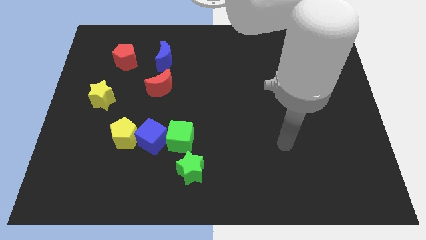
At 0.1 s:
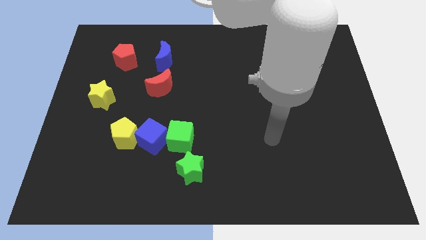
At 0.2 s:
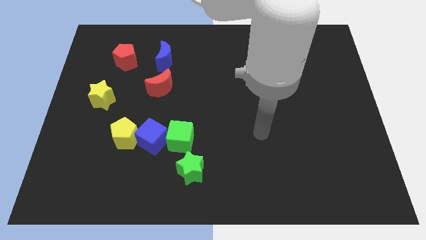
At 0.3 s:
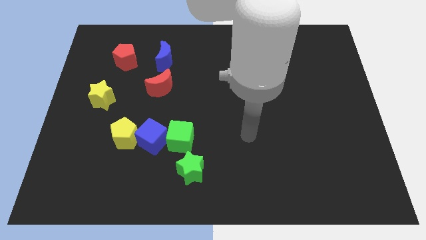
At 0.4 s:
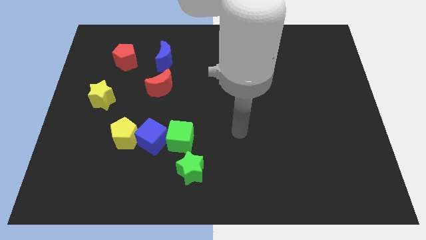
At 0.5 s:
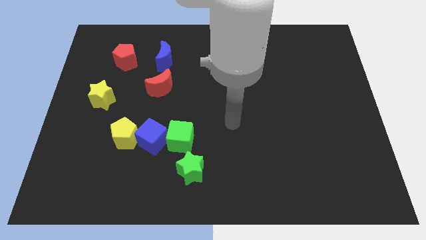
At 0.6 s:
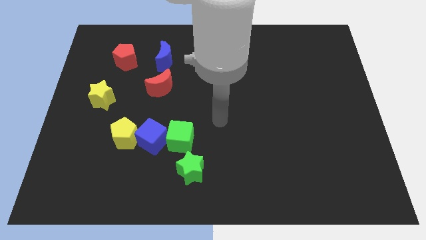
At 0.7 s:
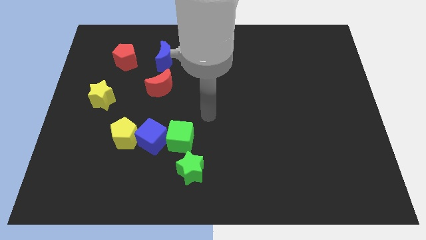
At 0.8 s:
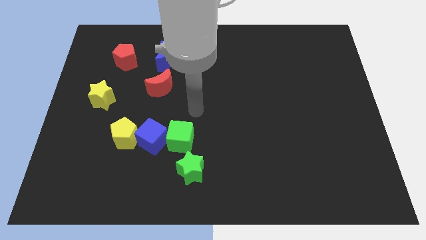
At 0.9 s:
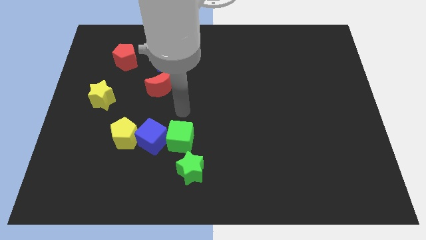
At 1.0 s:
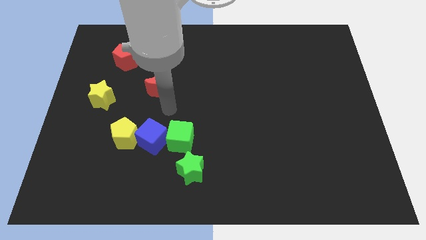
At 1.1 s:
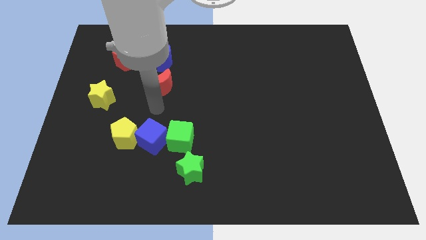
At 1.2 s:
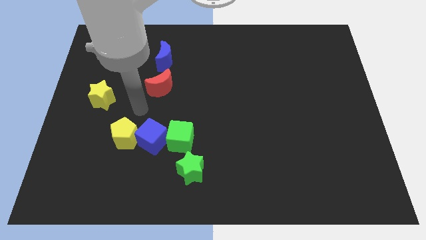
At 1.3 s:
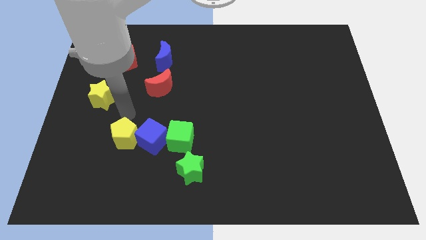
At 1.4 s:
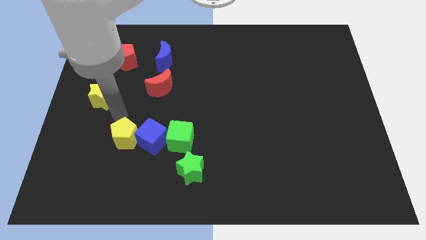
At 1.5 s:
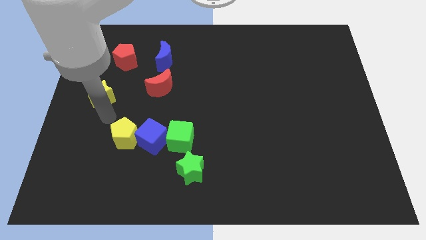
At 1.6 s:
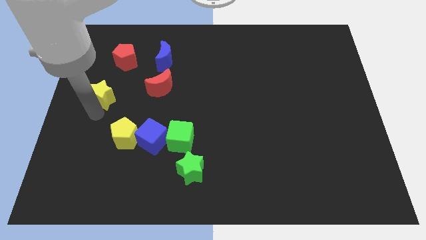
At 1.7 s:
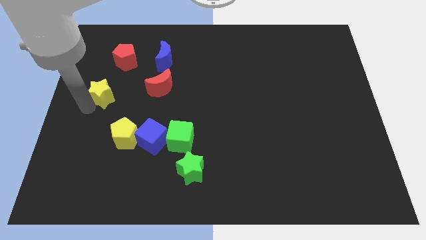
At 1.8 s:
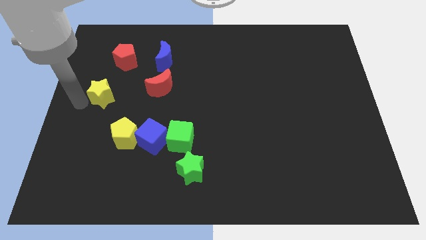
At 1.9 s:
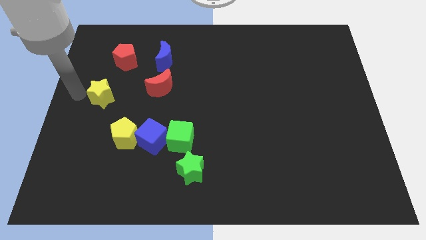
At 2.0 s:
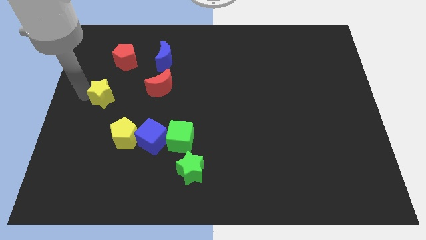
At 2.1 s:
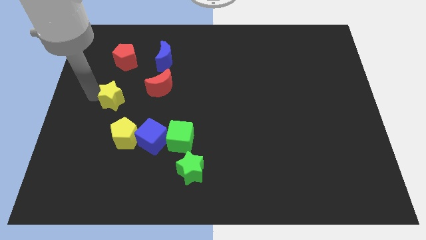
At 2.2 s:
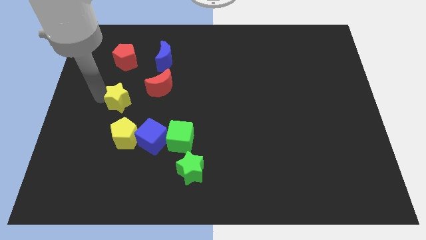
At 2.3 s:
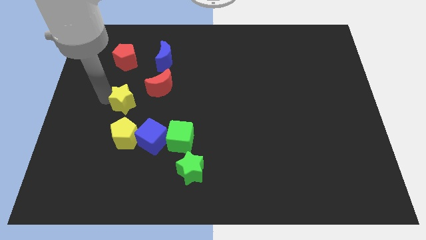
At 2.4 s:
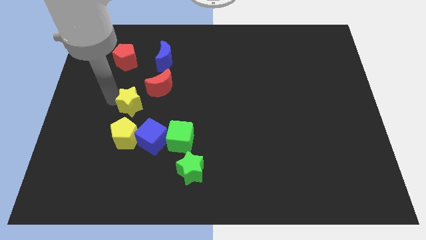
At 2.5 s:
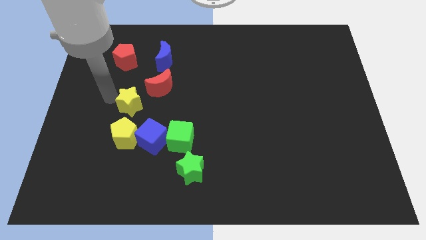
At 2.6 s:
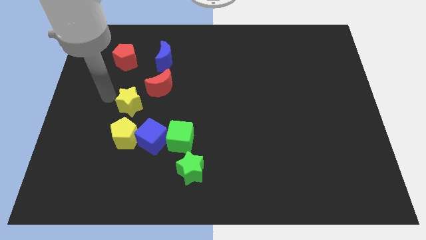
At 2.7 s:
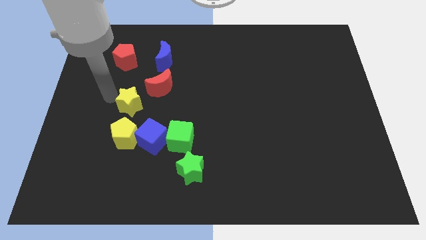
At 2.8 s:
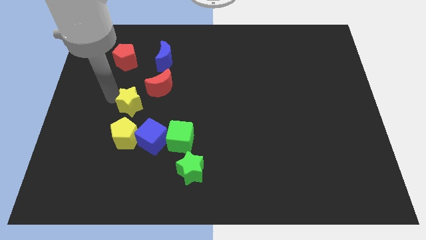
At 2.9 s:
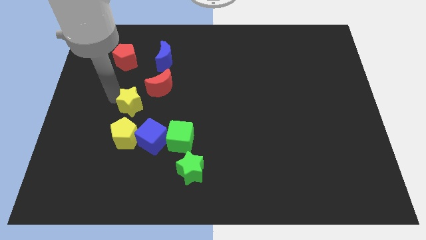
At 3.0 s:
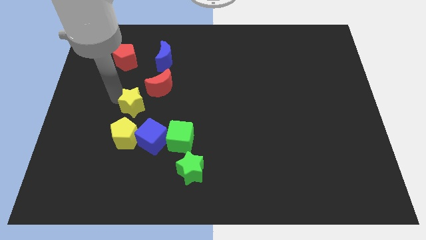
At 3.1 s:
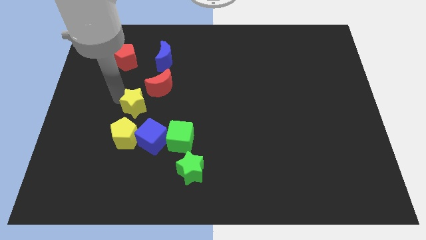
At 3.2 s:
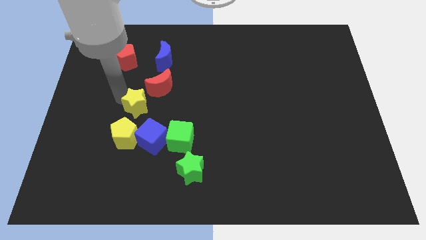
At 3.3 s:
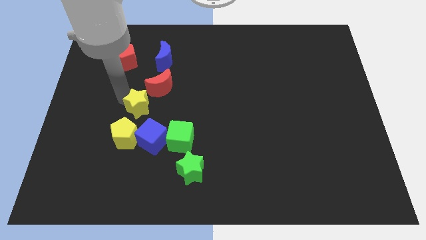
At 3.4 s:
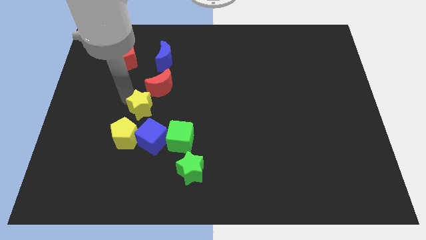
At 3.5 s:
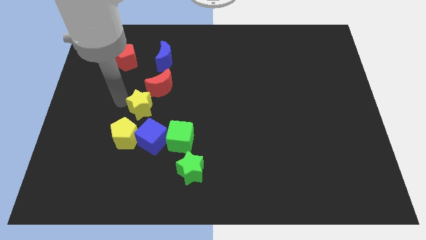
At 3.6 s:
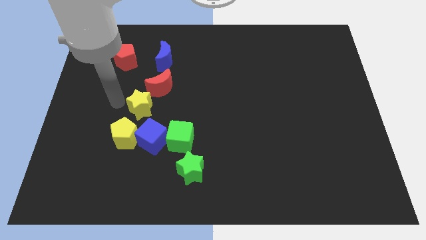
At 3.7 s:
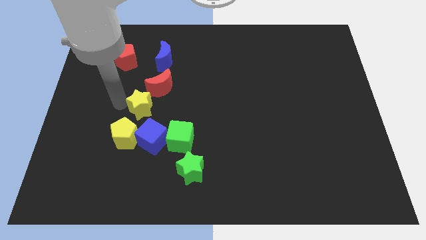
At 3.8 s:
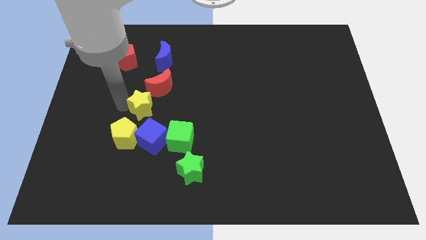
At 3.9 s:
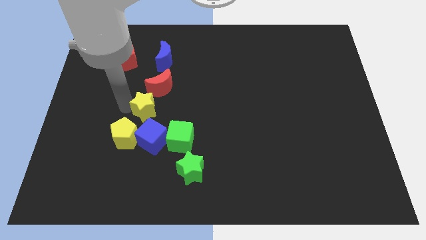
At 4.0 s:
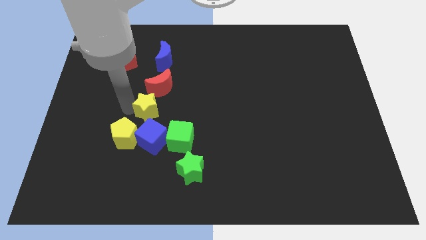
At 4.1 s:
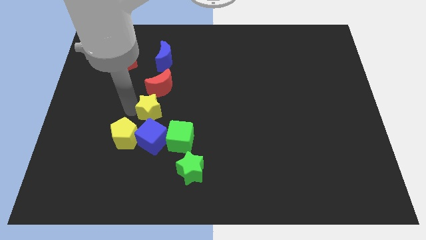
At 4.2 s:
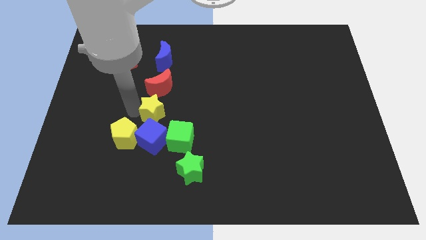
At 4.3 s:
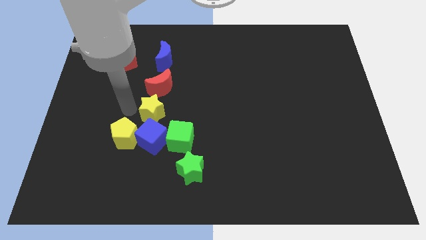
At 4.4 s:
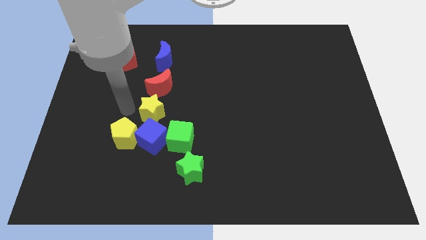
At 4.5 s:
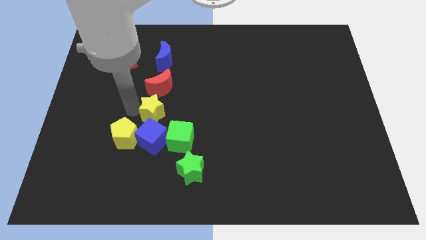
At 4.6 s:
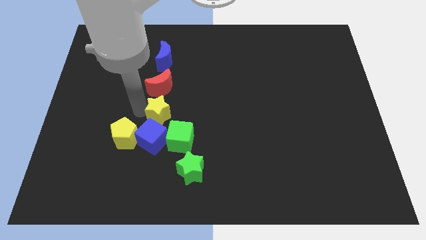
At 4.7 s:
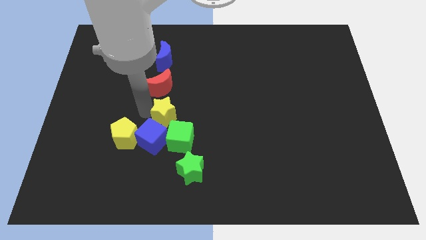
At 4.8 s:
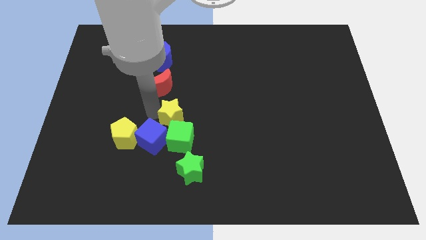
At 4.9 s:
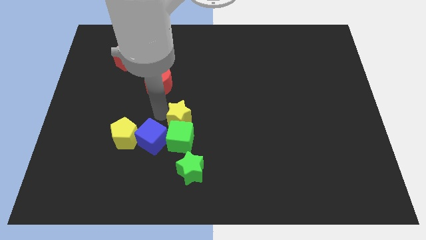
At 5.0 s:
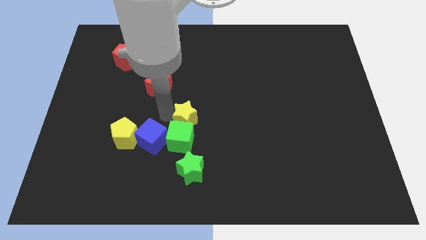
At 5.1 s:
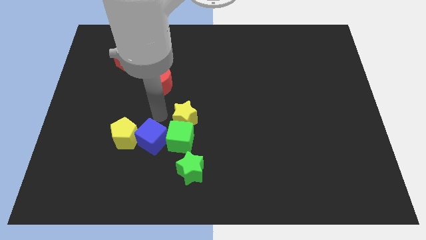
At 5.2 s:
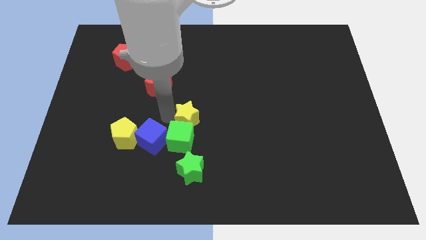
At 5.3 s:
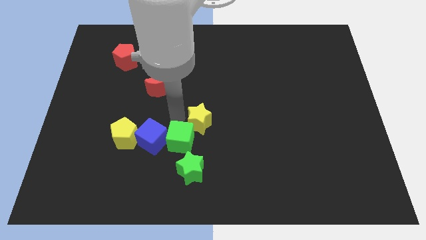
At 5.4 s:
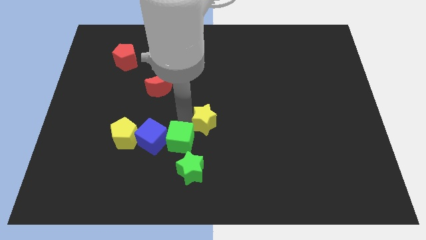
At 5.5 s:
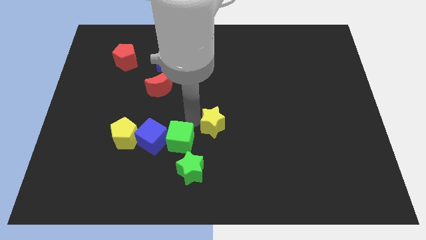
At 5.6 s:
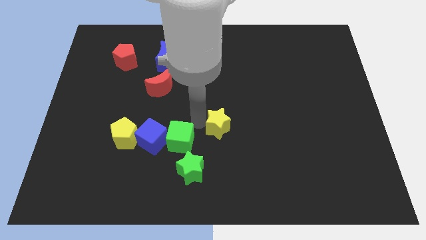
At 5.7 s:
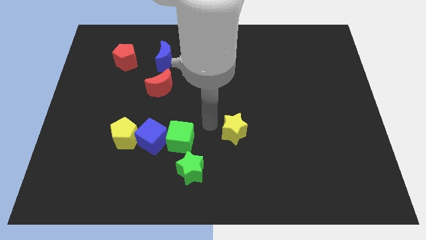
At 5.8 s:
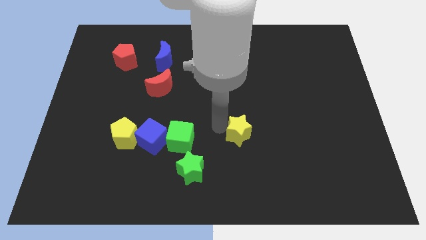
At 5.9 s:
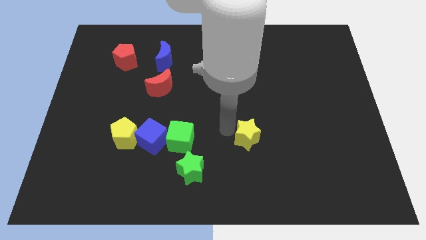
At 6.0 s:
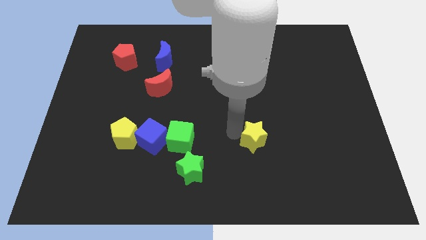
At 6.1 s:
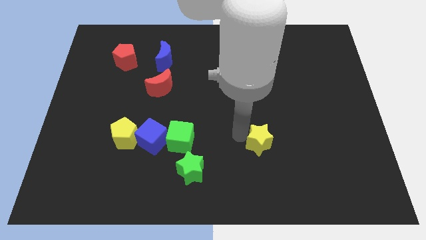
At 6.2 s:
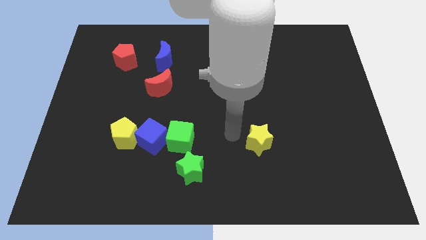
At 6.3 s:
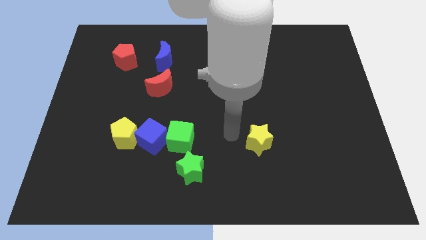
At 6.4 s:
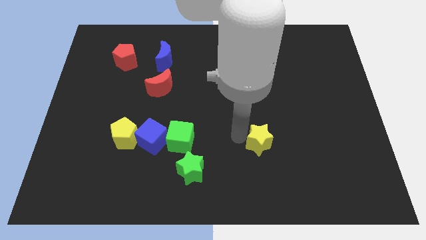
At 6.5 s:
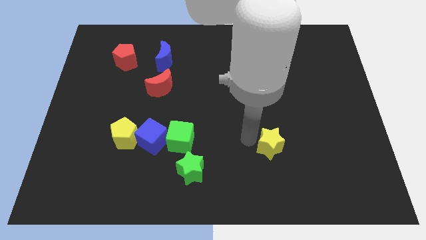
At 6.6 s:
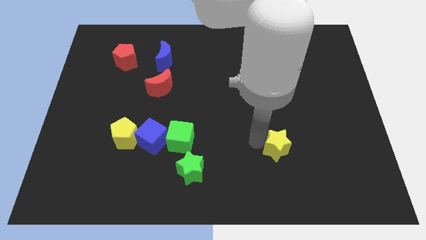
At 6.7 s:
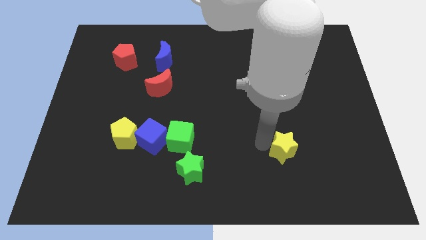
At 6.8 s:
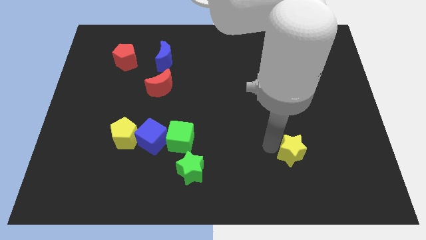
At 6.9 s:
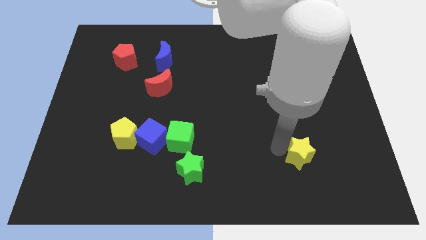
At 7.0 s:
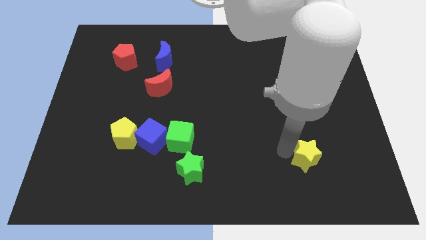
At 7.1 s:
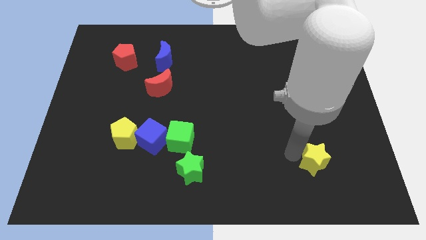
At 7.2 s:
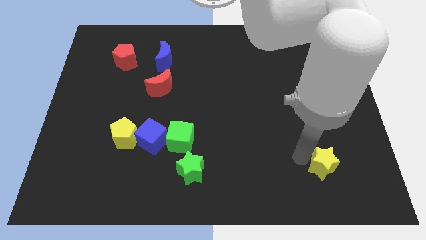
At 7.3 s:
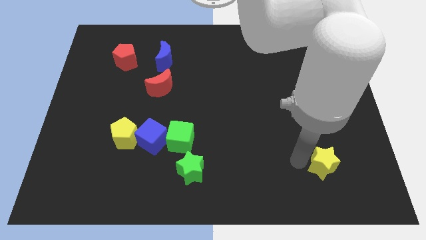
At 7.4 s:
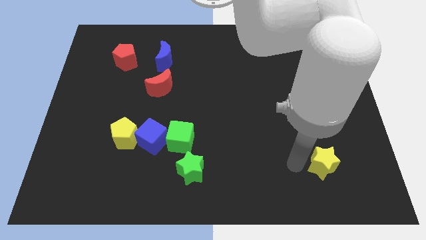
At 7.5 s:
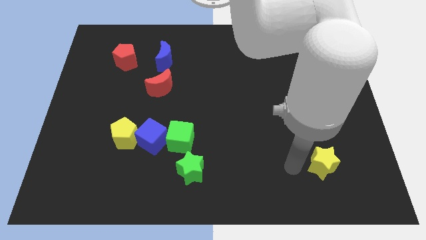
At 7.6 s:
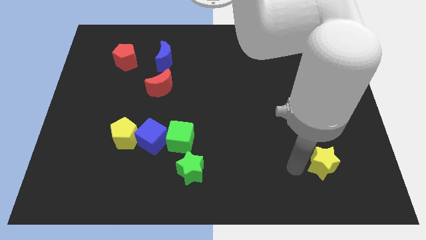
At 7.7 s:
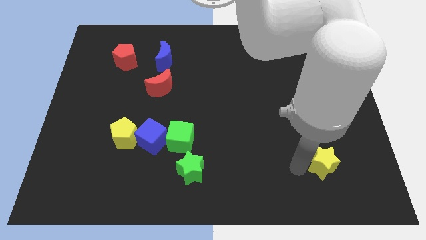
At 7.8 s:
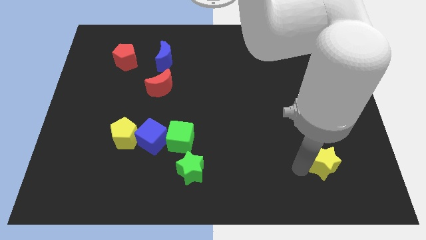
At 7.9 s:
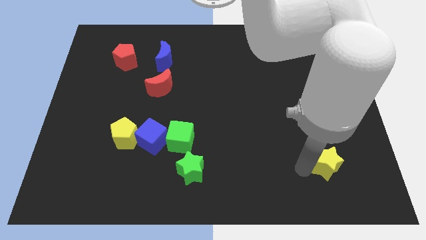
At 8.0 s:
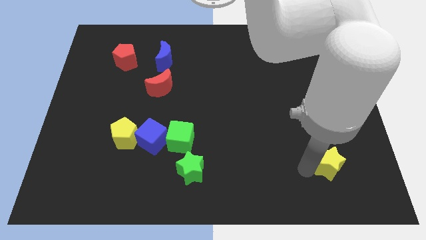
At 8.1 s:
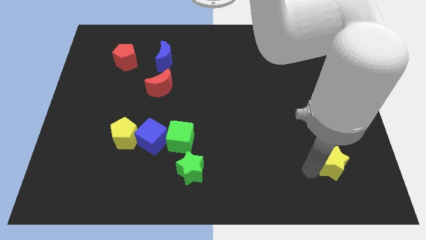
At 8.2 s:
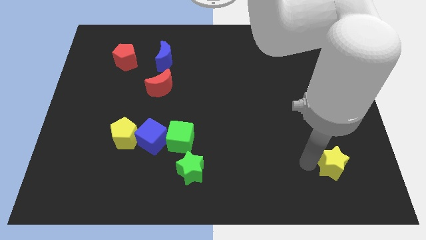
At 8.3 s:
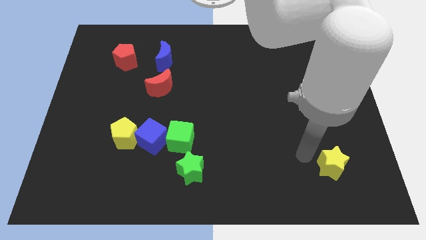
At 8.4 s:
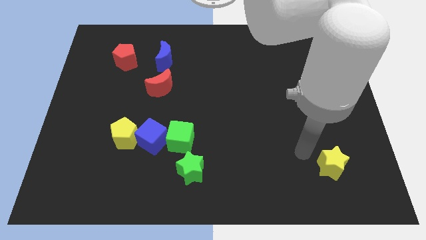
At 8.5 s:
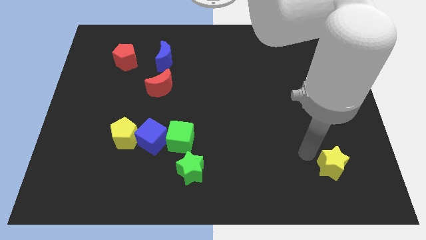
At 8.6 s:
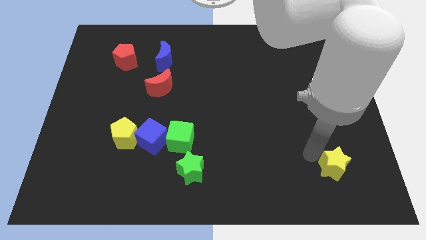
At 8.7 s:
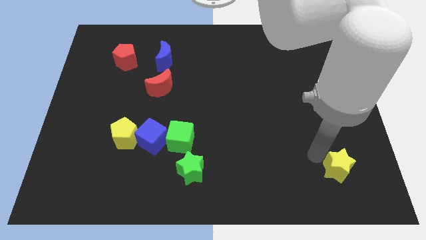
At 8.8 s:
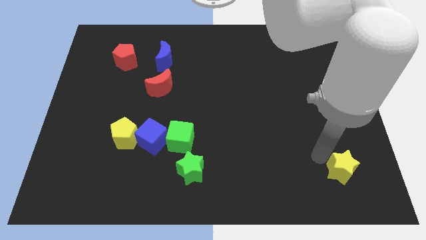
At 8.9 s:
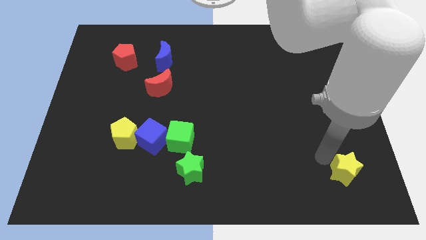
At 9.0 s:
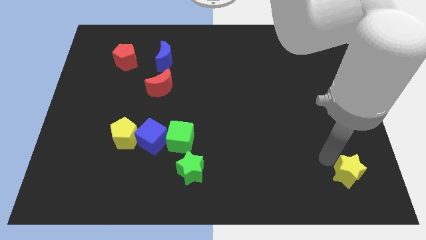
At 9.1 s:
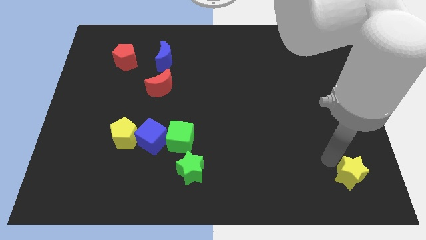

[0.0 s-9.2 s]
put the yellow star to the lower right corner
